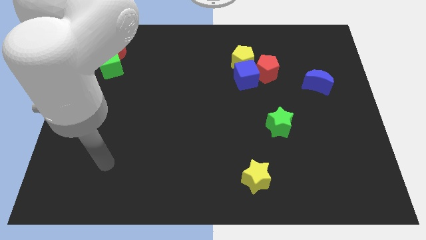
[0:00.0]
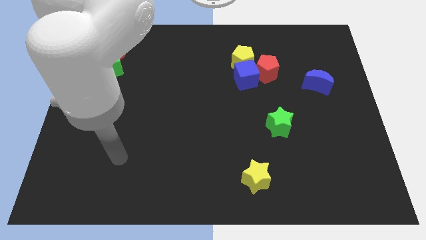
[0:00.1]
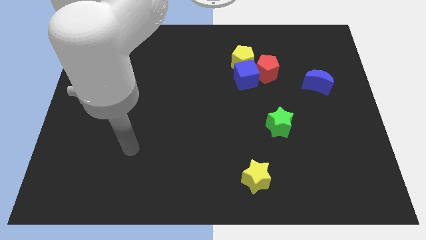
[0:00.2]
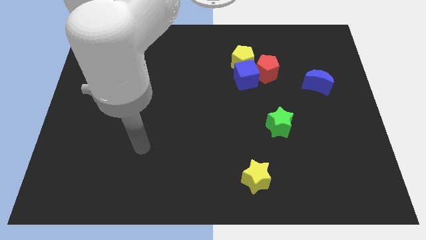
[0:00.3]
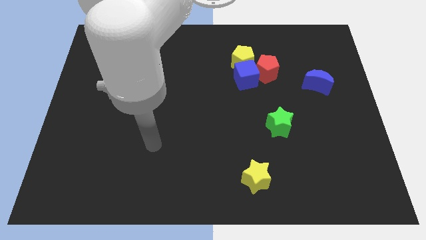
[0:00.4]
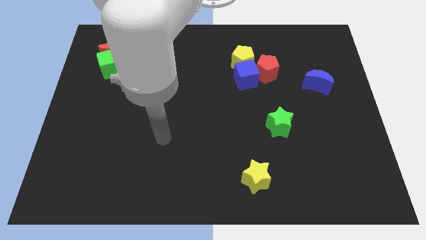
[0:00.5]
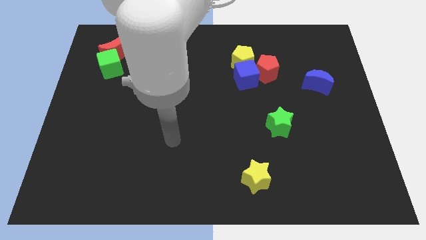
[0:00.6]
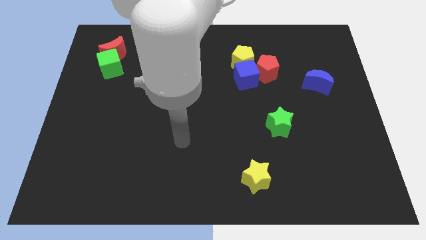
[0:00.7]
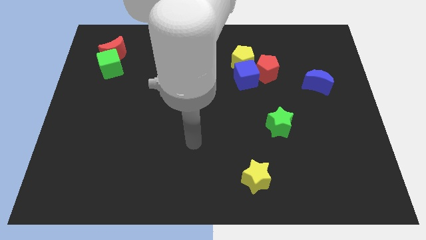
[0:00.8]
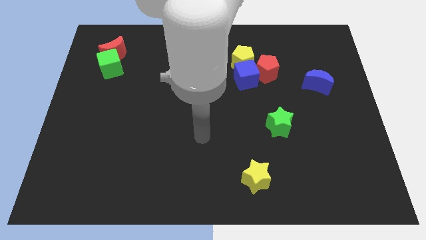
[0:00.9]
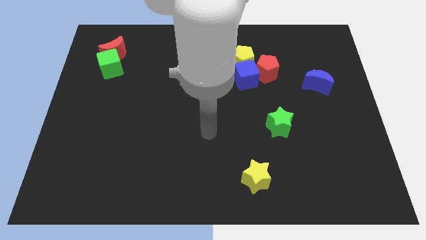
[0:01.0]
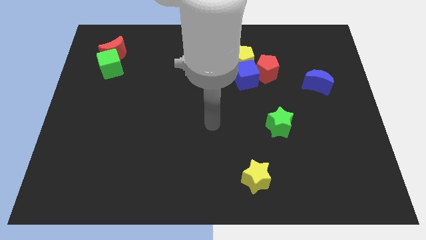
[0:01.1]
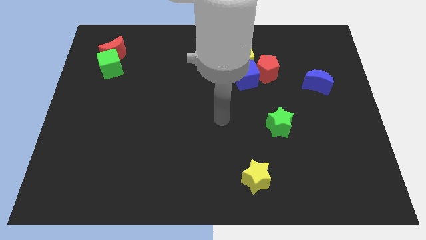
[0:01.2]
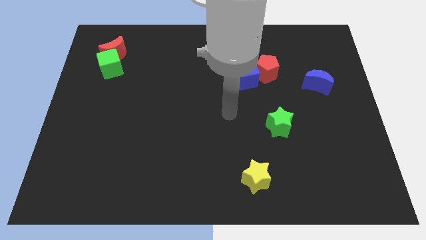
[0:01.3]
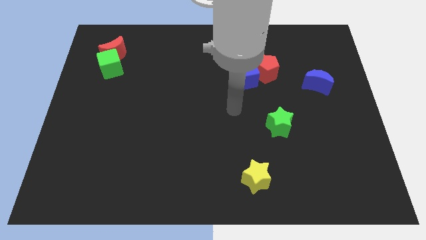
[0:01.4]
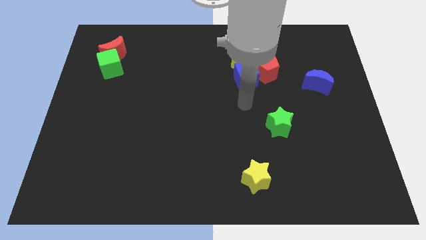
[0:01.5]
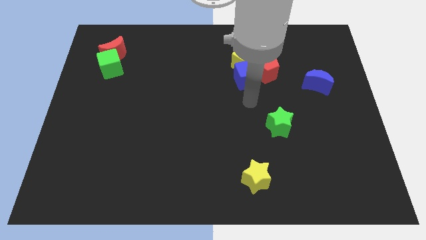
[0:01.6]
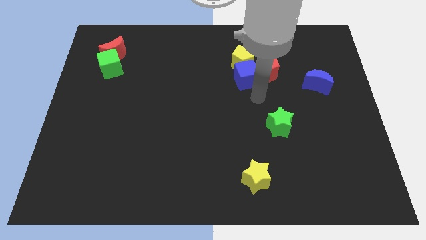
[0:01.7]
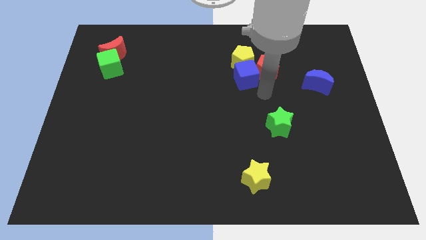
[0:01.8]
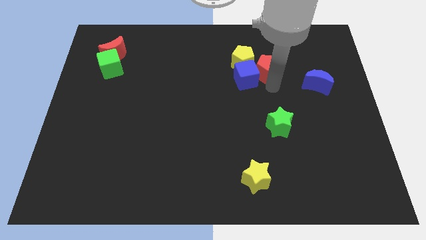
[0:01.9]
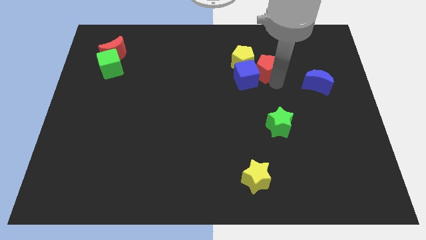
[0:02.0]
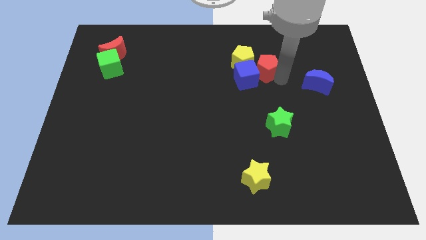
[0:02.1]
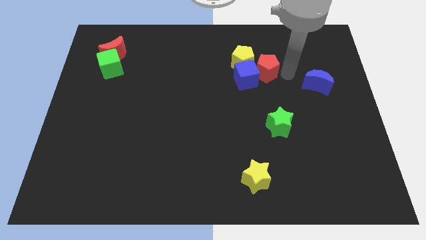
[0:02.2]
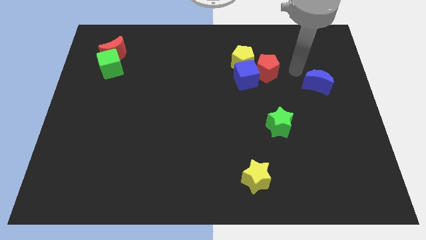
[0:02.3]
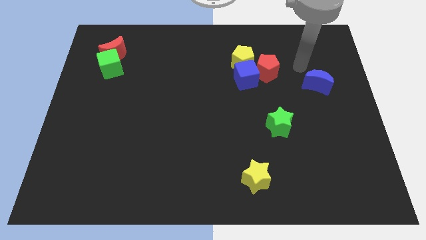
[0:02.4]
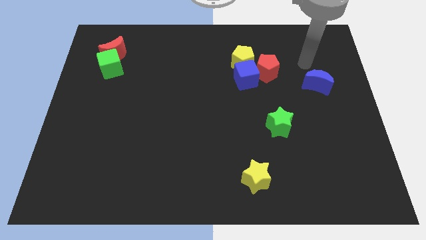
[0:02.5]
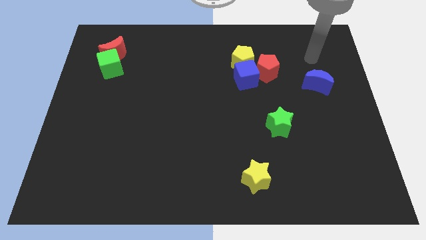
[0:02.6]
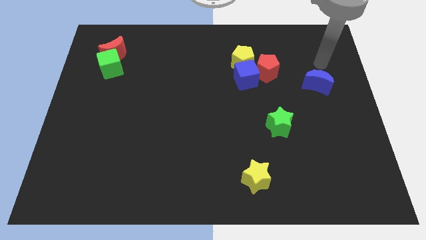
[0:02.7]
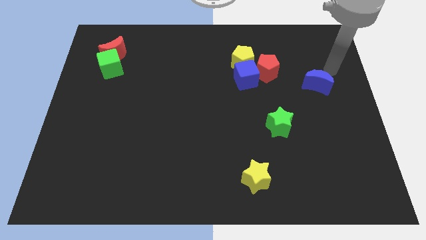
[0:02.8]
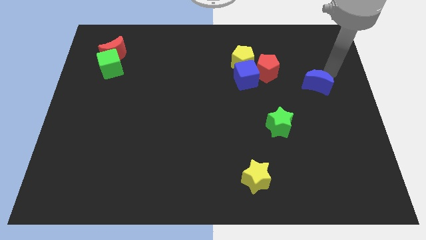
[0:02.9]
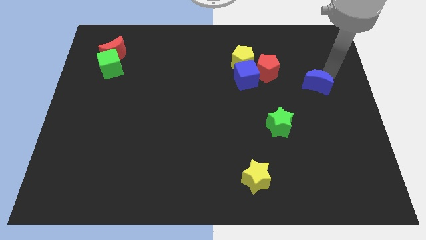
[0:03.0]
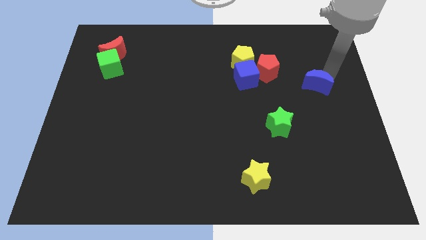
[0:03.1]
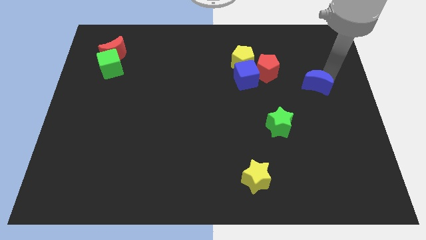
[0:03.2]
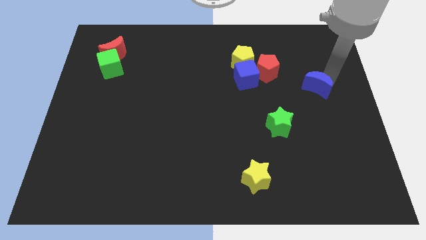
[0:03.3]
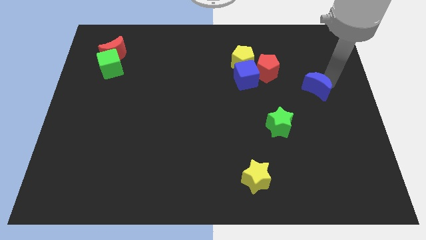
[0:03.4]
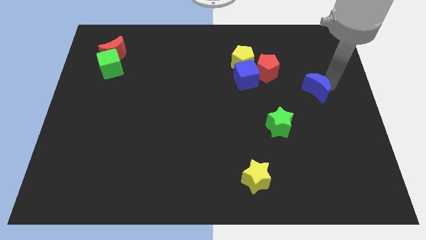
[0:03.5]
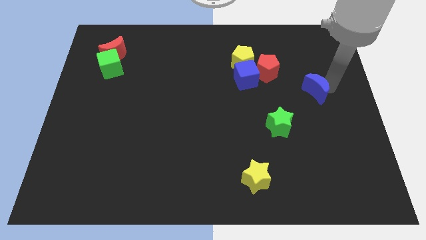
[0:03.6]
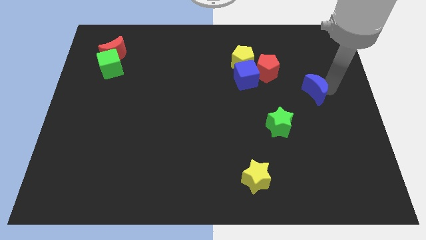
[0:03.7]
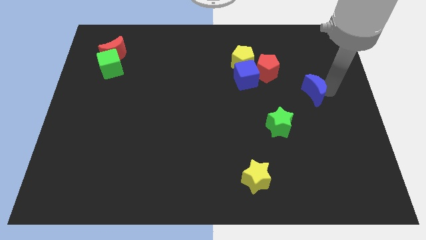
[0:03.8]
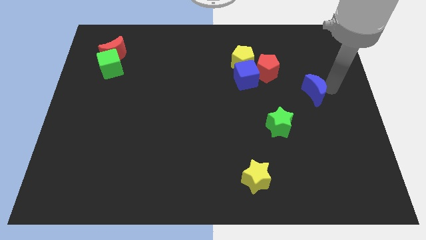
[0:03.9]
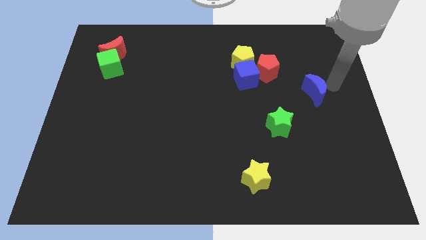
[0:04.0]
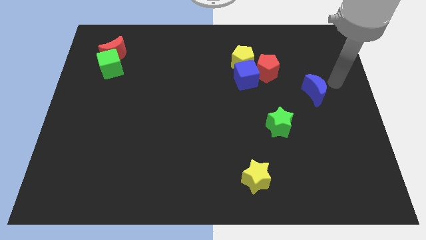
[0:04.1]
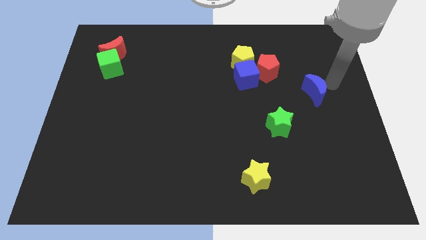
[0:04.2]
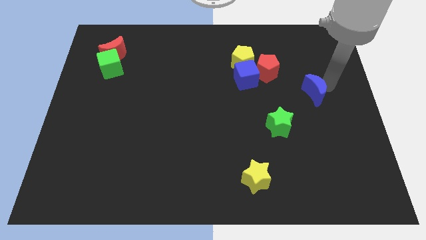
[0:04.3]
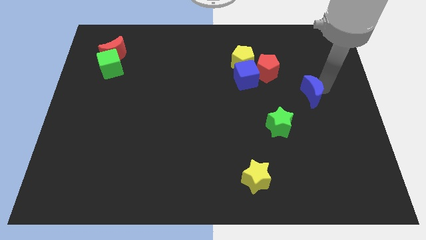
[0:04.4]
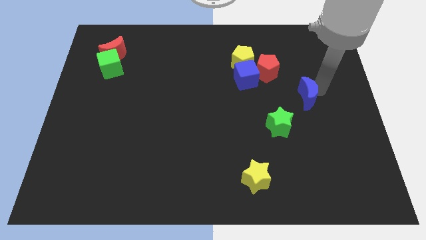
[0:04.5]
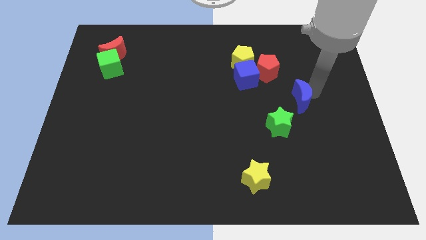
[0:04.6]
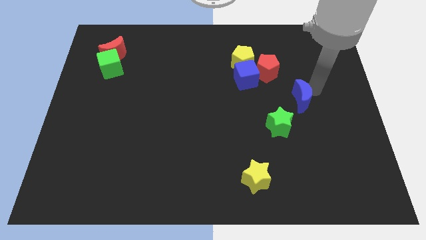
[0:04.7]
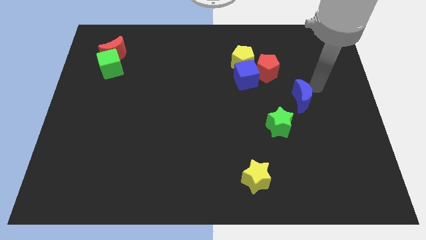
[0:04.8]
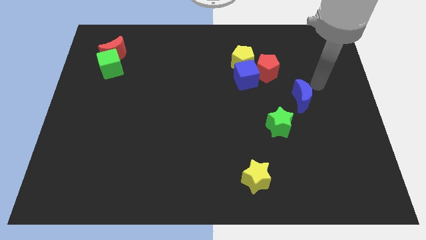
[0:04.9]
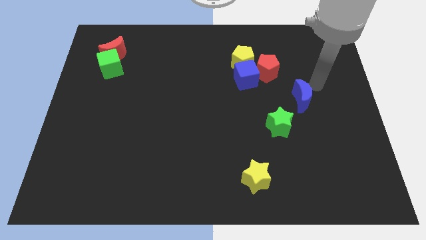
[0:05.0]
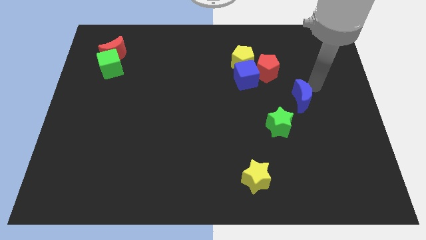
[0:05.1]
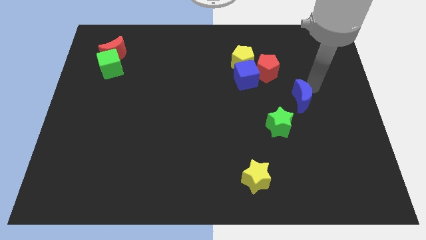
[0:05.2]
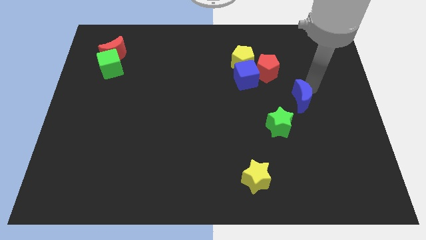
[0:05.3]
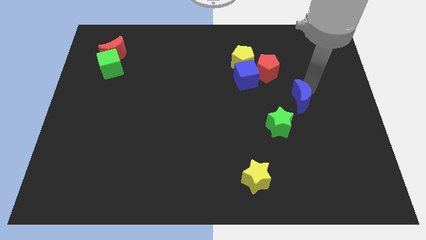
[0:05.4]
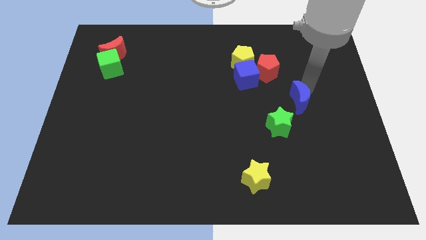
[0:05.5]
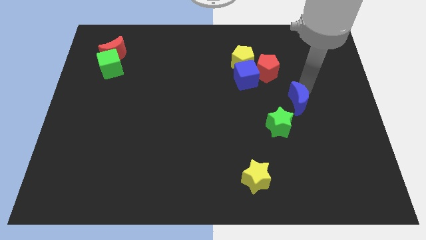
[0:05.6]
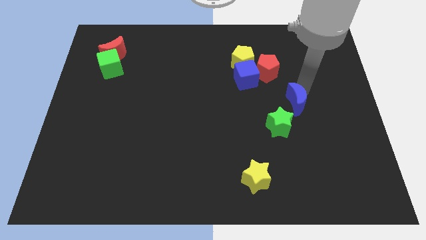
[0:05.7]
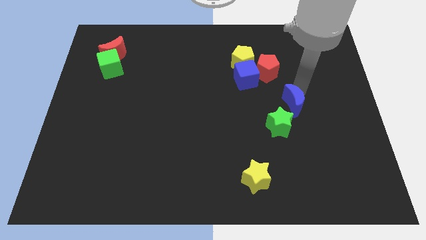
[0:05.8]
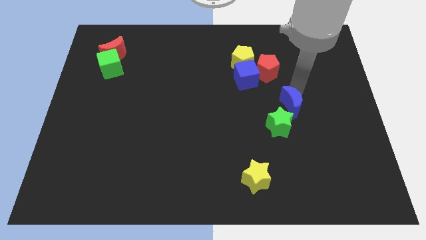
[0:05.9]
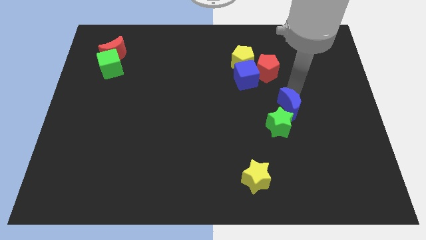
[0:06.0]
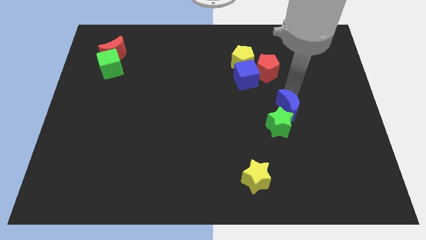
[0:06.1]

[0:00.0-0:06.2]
push the blue moon to the green star

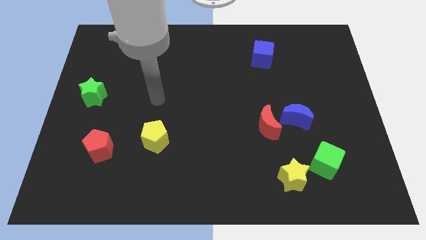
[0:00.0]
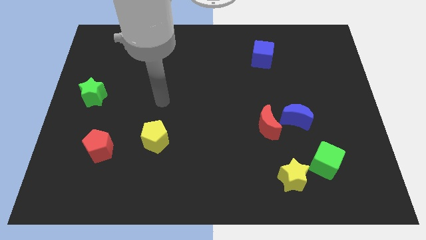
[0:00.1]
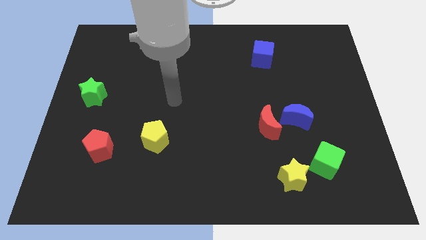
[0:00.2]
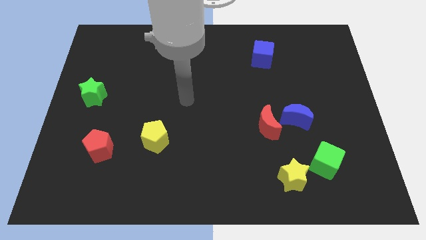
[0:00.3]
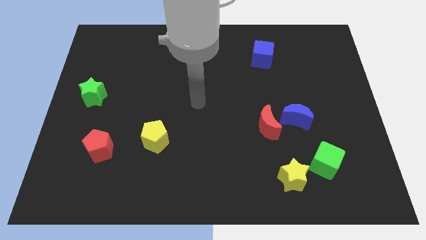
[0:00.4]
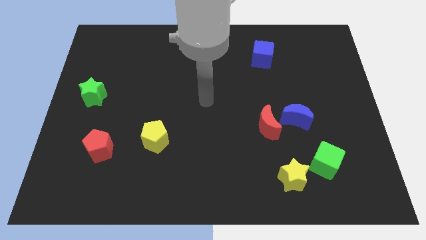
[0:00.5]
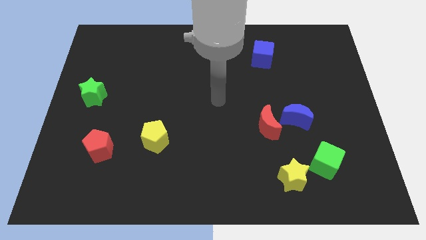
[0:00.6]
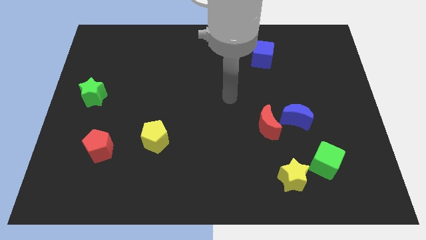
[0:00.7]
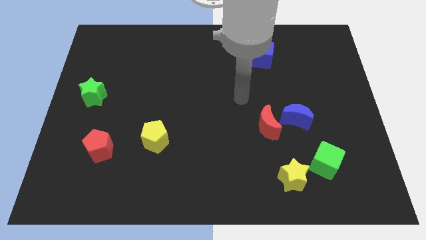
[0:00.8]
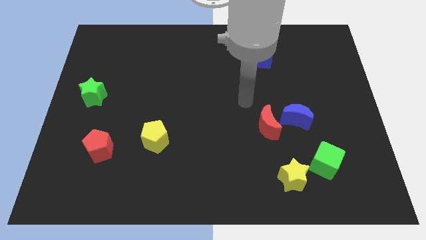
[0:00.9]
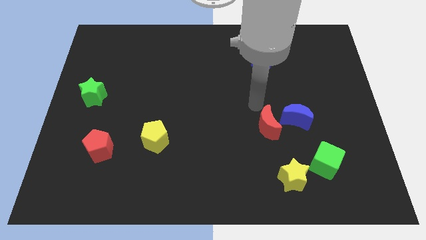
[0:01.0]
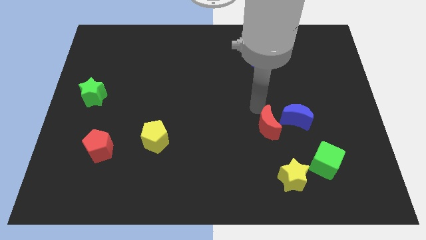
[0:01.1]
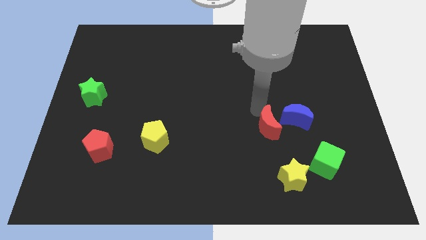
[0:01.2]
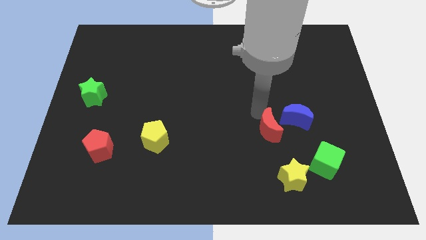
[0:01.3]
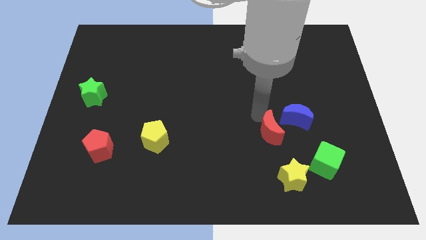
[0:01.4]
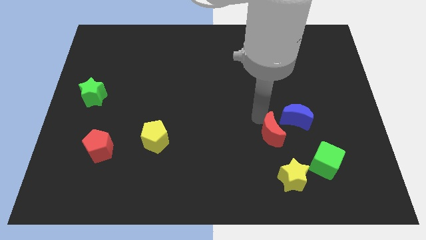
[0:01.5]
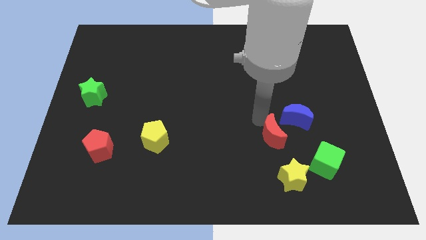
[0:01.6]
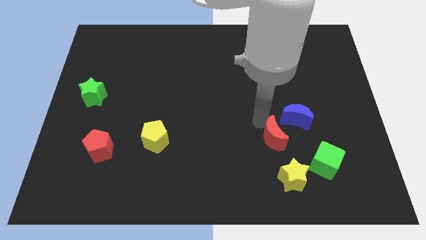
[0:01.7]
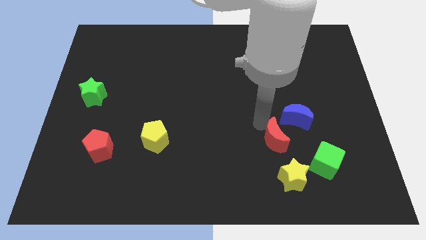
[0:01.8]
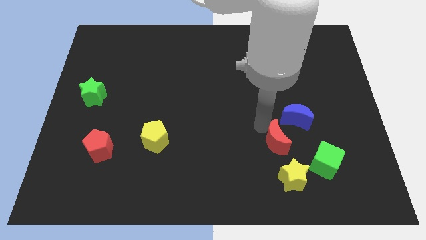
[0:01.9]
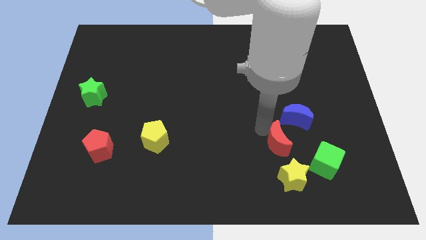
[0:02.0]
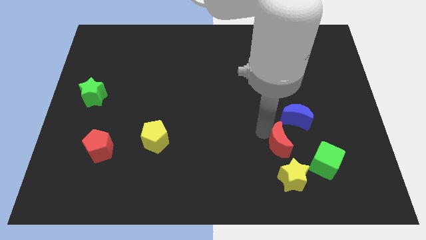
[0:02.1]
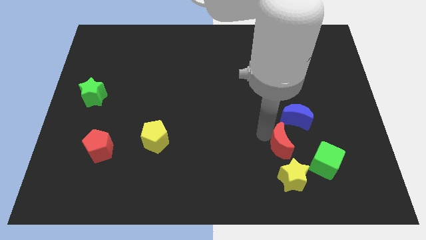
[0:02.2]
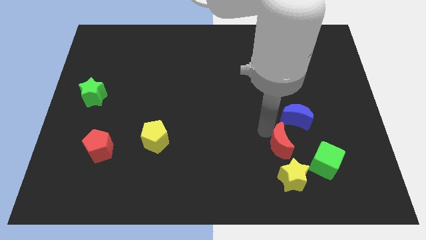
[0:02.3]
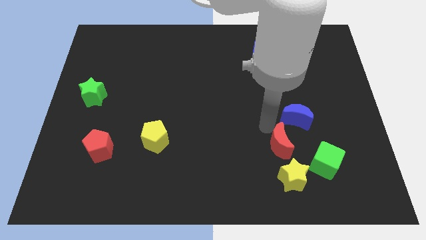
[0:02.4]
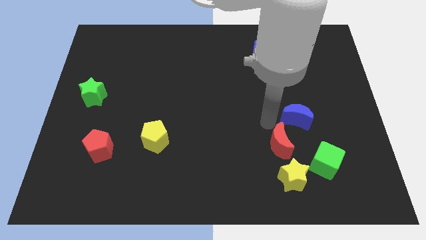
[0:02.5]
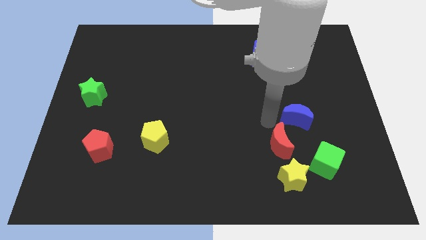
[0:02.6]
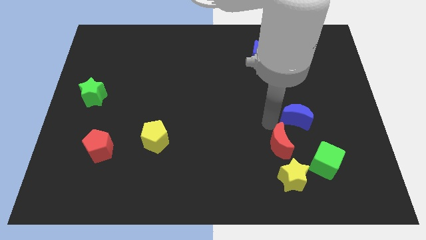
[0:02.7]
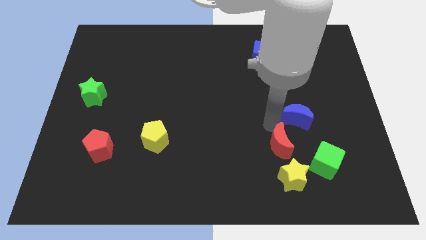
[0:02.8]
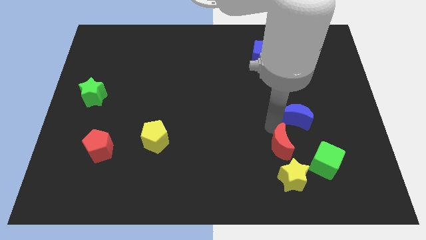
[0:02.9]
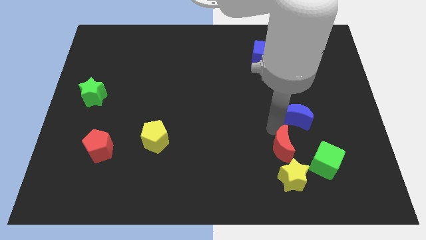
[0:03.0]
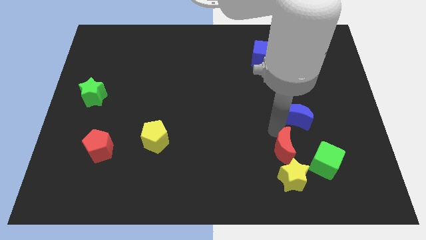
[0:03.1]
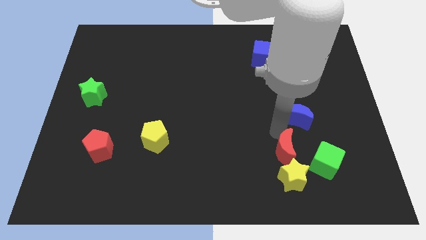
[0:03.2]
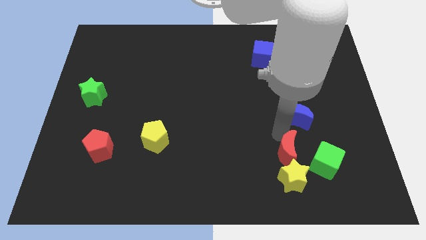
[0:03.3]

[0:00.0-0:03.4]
move the red moon close to the yellow star
